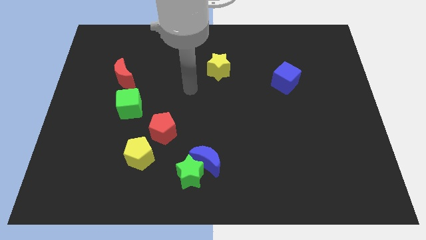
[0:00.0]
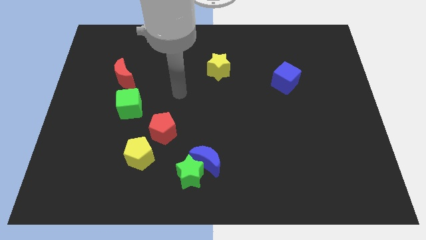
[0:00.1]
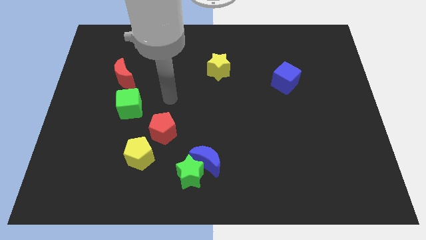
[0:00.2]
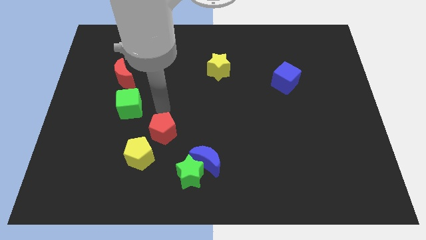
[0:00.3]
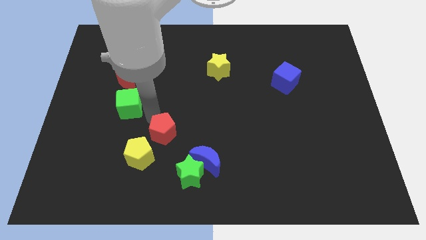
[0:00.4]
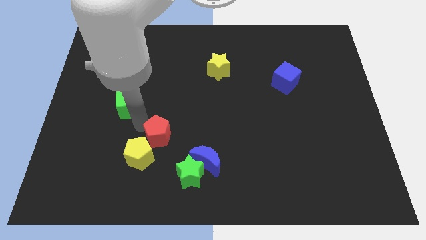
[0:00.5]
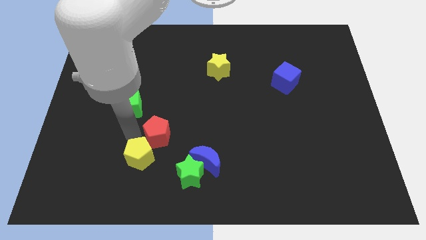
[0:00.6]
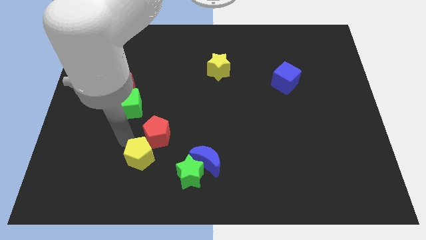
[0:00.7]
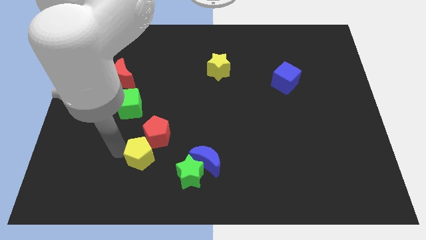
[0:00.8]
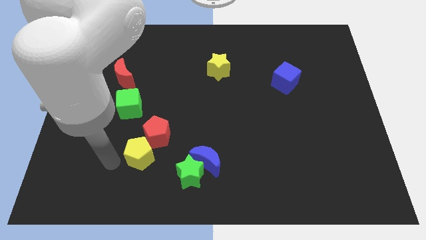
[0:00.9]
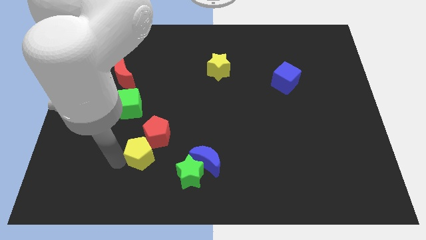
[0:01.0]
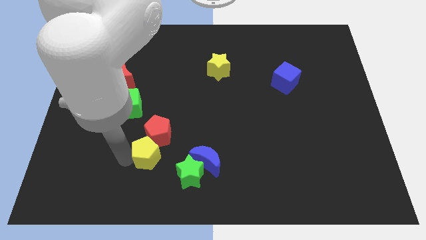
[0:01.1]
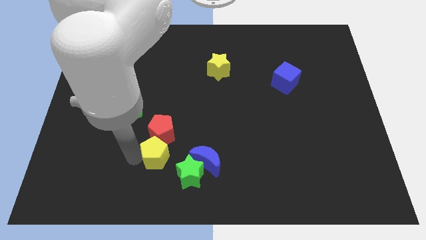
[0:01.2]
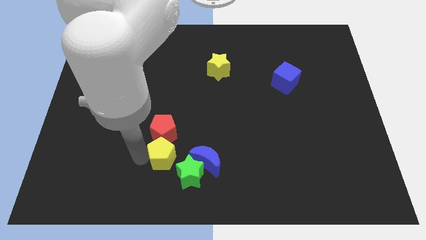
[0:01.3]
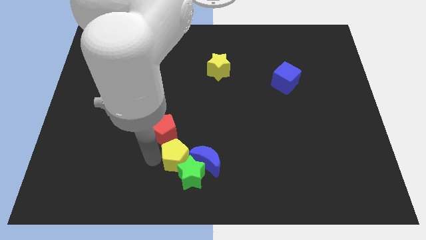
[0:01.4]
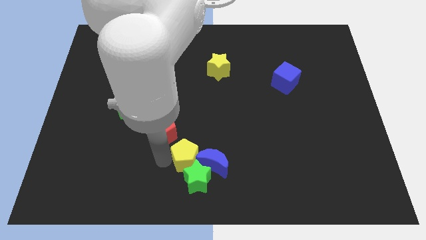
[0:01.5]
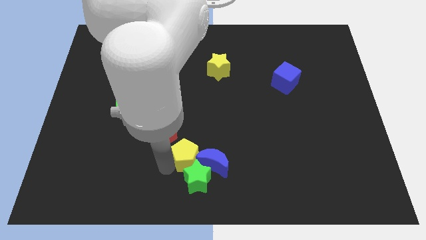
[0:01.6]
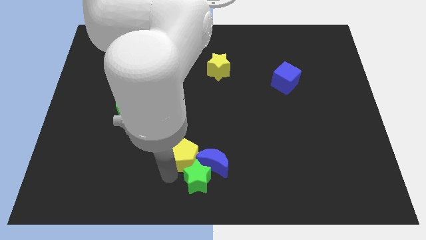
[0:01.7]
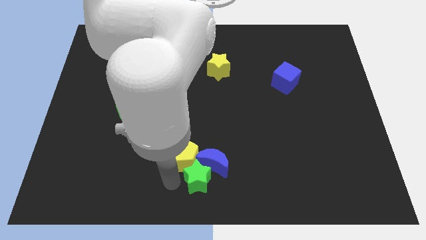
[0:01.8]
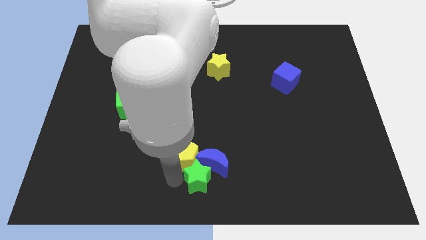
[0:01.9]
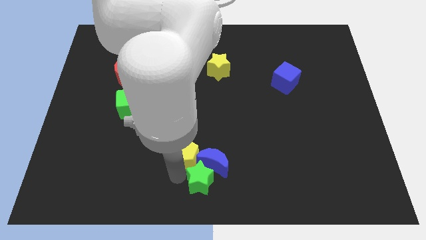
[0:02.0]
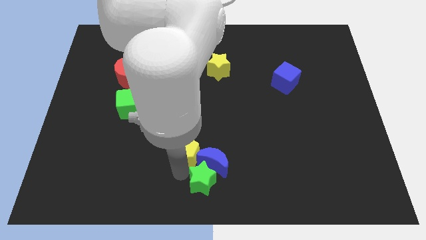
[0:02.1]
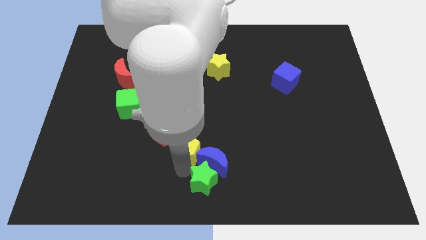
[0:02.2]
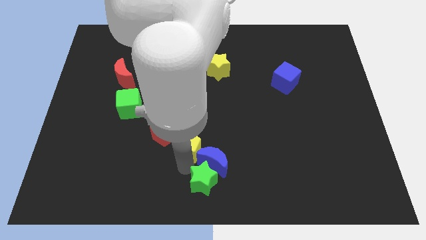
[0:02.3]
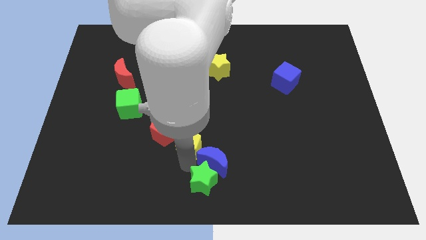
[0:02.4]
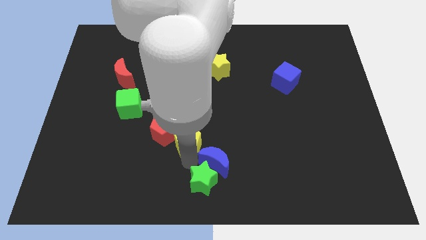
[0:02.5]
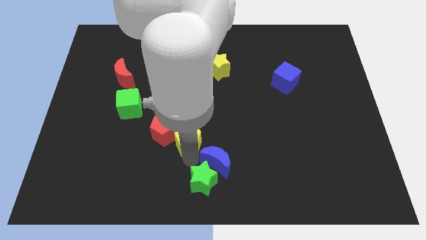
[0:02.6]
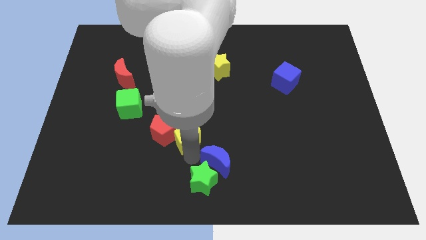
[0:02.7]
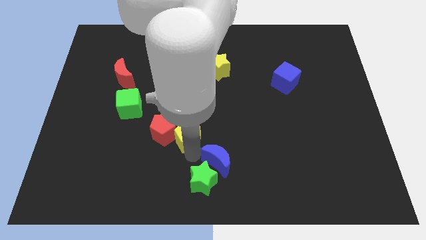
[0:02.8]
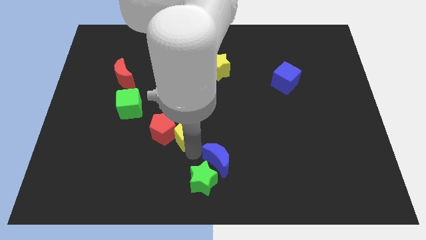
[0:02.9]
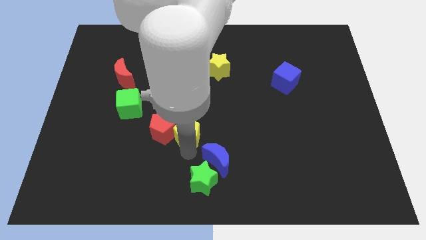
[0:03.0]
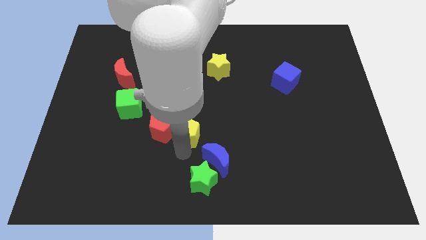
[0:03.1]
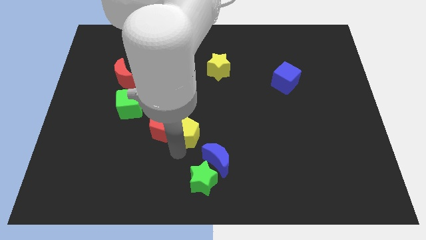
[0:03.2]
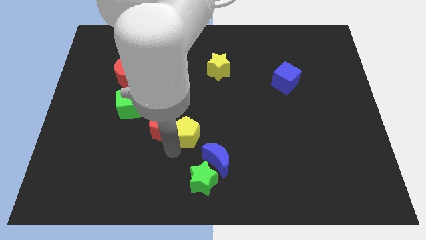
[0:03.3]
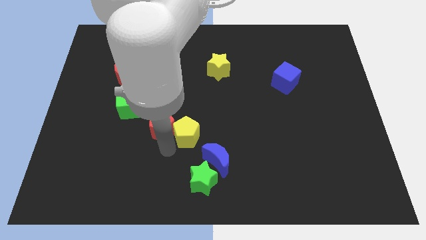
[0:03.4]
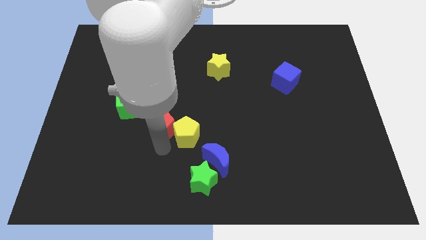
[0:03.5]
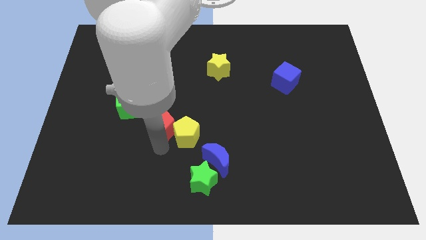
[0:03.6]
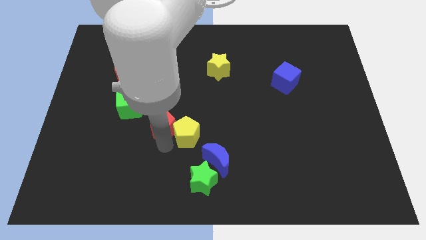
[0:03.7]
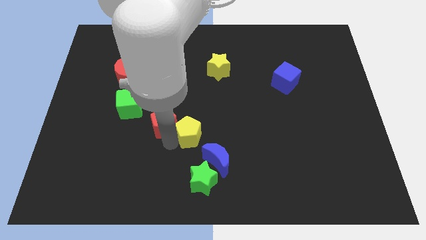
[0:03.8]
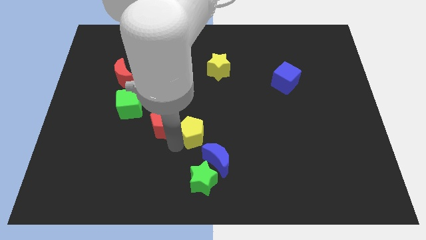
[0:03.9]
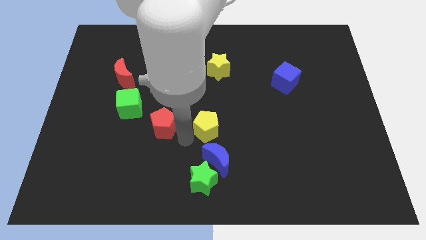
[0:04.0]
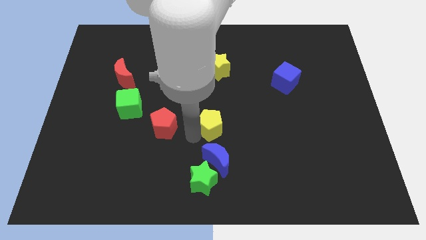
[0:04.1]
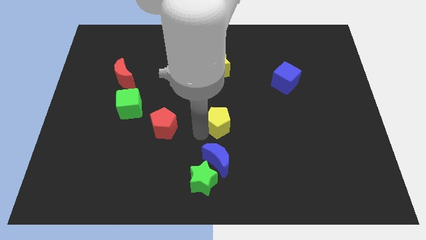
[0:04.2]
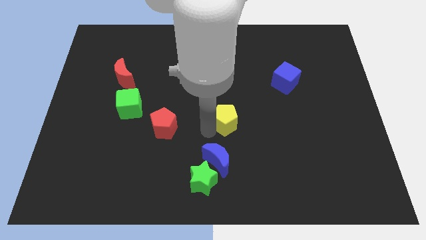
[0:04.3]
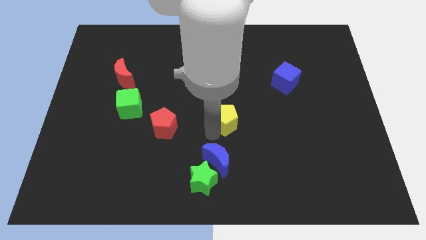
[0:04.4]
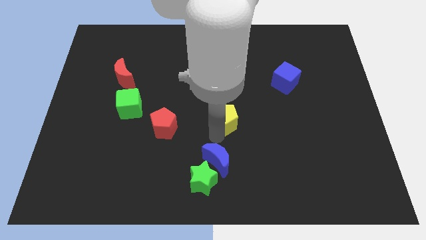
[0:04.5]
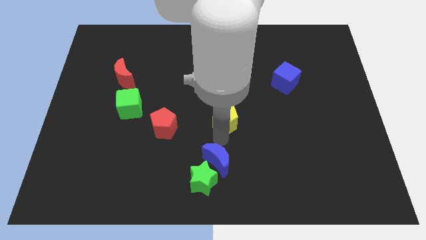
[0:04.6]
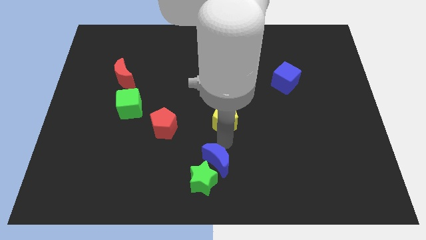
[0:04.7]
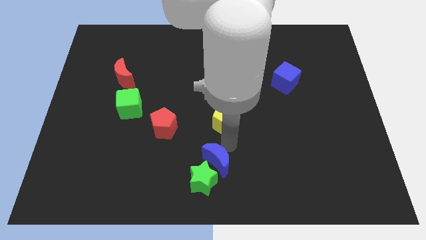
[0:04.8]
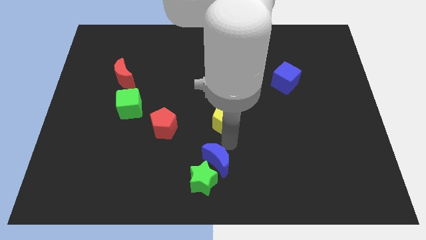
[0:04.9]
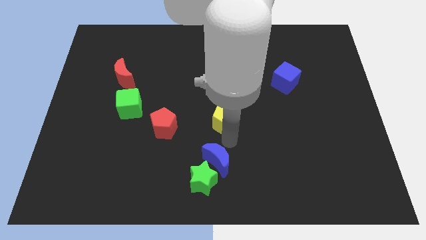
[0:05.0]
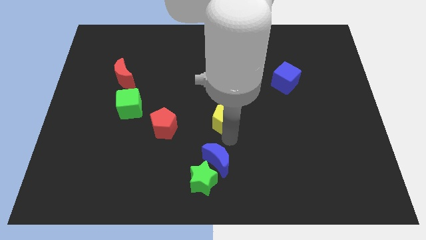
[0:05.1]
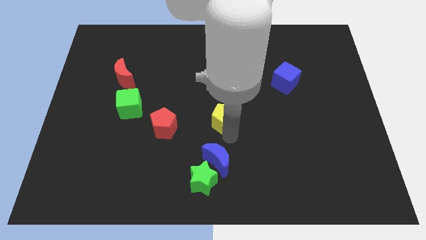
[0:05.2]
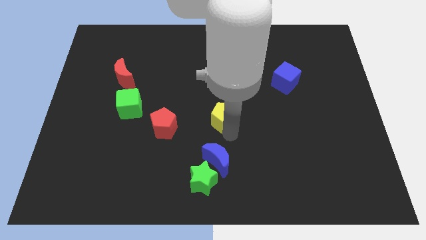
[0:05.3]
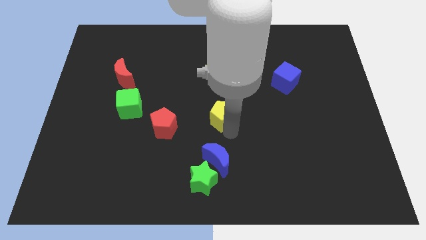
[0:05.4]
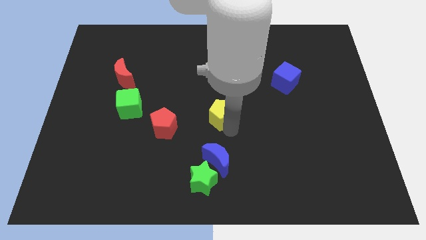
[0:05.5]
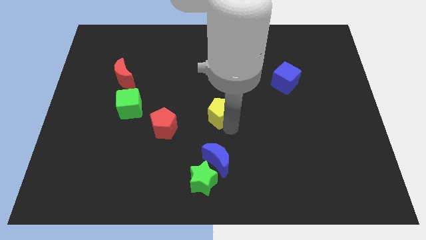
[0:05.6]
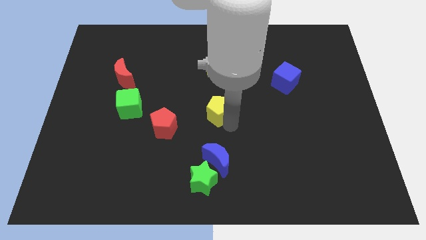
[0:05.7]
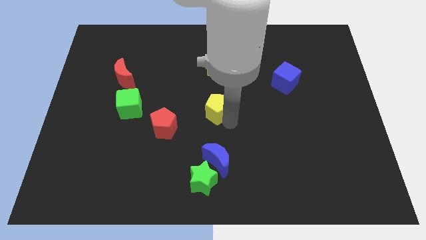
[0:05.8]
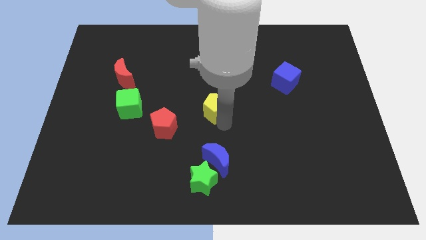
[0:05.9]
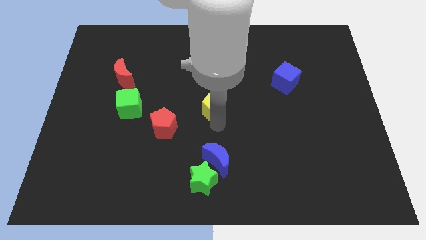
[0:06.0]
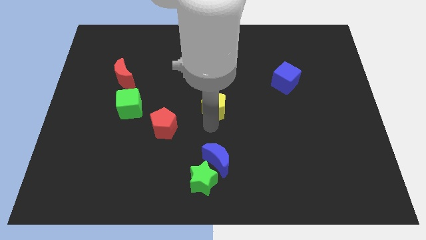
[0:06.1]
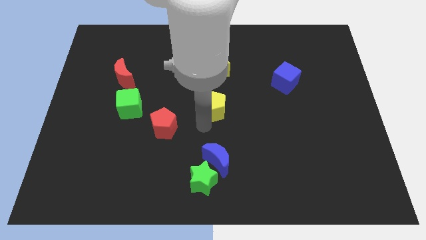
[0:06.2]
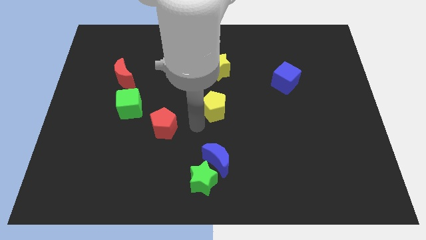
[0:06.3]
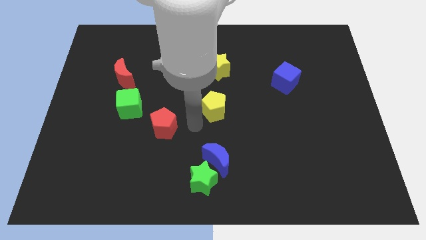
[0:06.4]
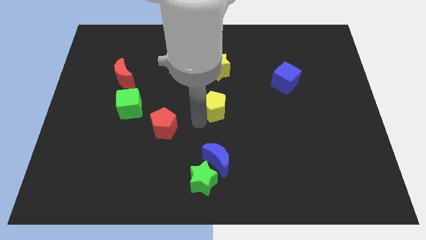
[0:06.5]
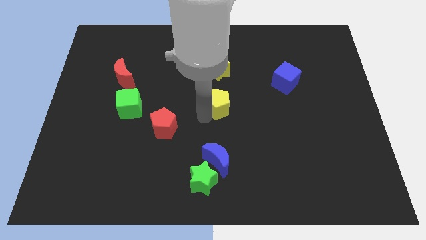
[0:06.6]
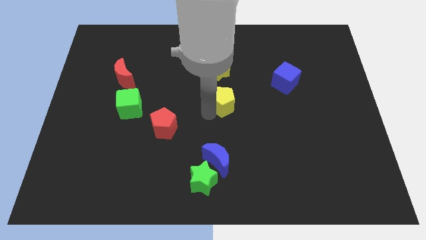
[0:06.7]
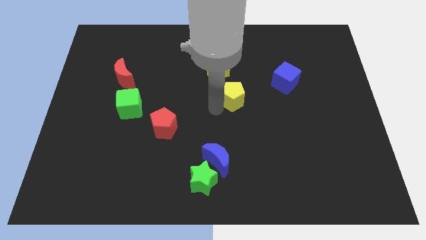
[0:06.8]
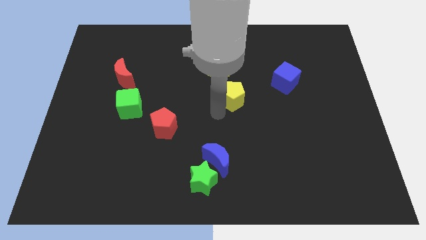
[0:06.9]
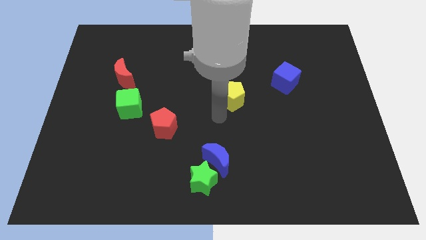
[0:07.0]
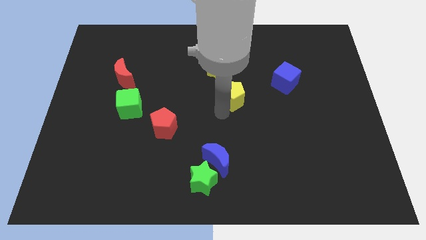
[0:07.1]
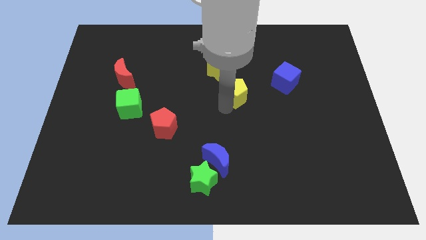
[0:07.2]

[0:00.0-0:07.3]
slide the yellow pentagon just left of the blue cube
